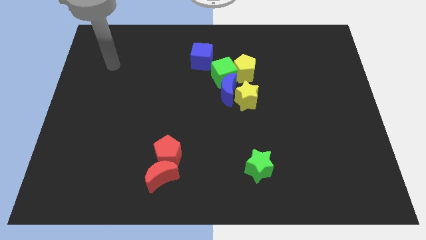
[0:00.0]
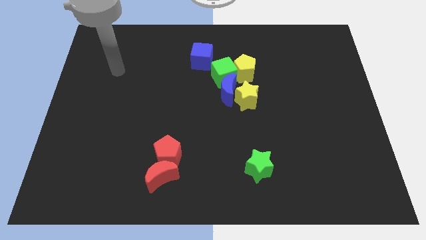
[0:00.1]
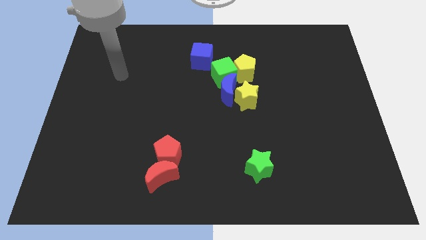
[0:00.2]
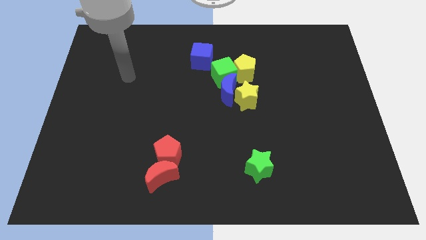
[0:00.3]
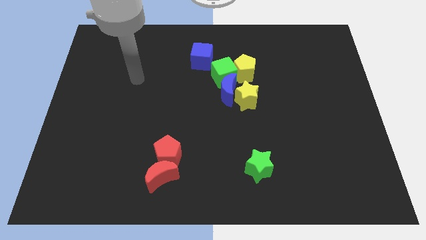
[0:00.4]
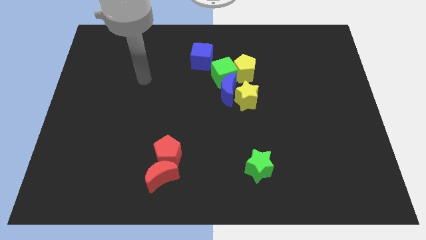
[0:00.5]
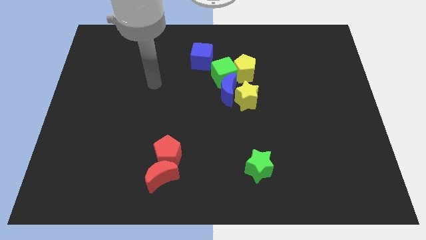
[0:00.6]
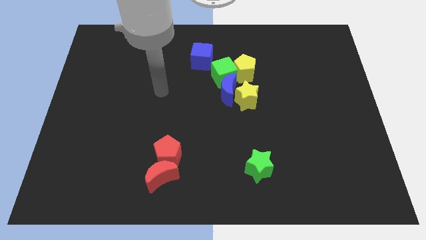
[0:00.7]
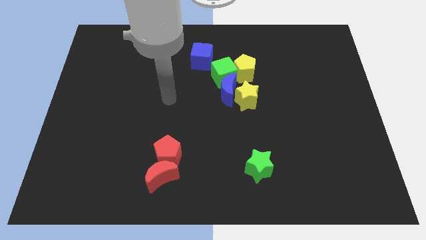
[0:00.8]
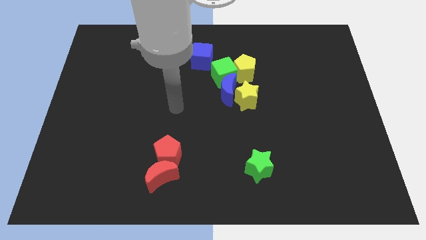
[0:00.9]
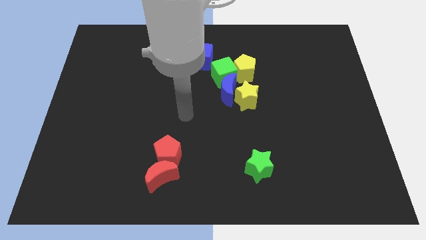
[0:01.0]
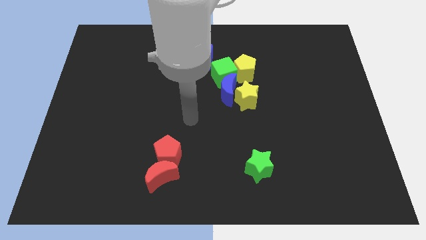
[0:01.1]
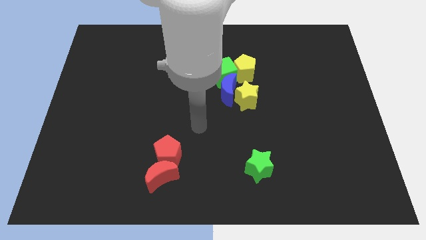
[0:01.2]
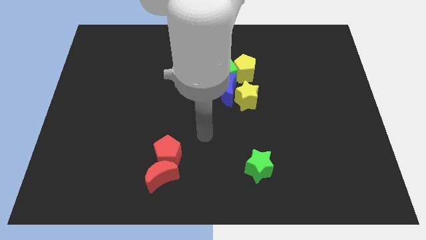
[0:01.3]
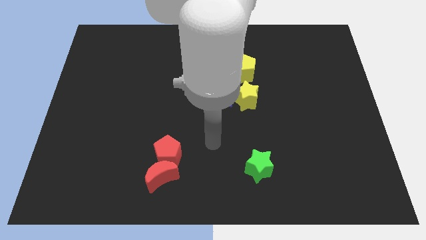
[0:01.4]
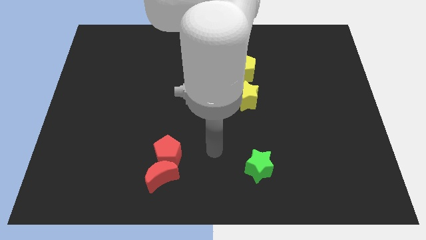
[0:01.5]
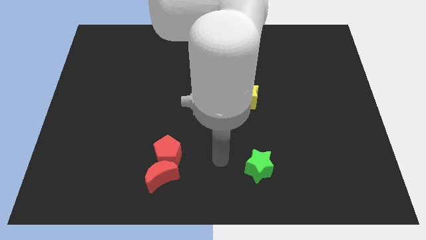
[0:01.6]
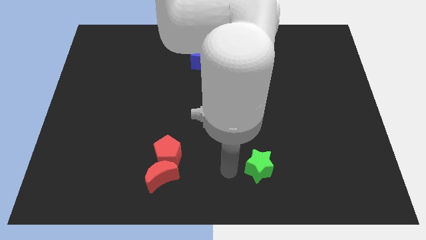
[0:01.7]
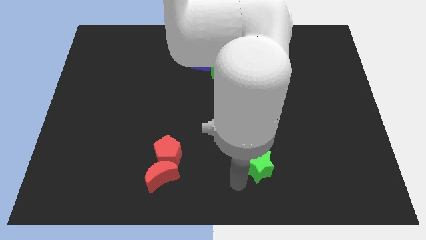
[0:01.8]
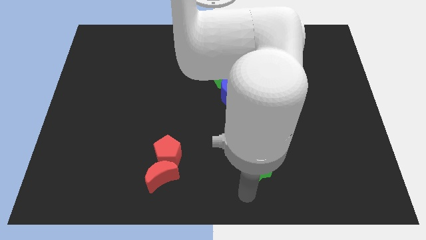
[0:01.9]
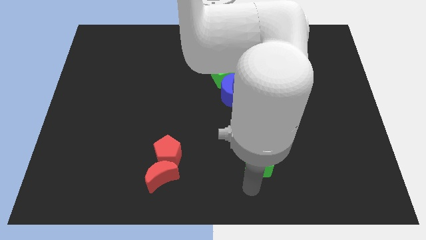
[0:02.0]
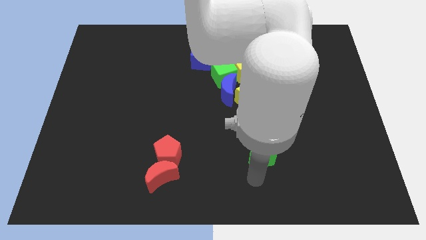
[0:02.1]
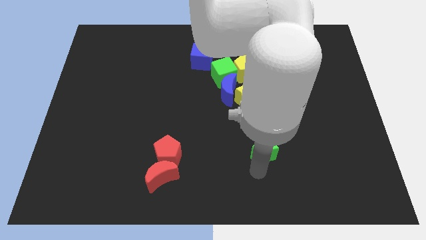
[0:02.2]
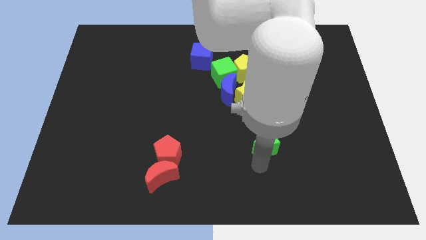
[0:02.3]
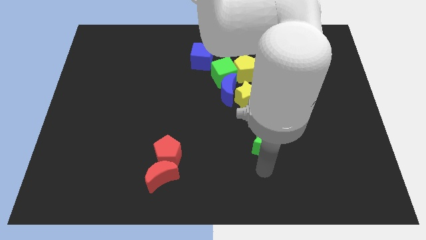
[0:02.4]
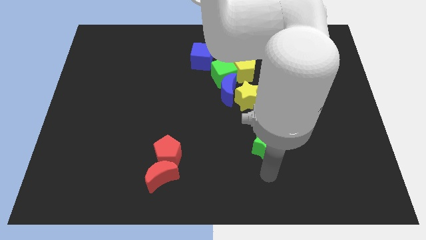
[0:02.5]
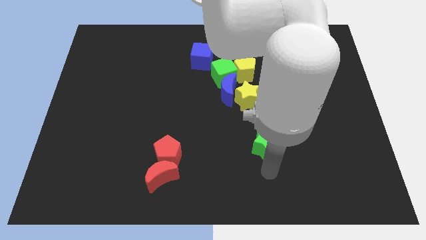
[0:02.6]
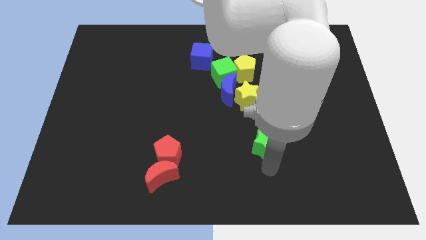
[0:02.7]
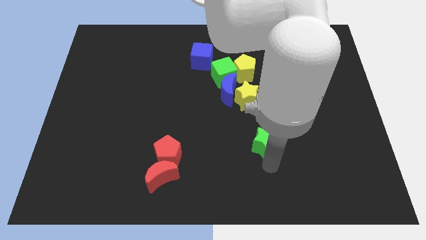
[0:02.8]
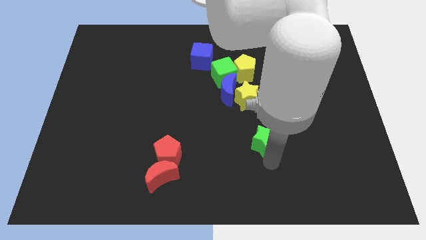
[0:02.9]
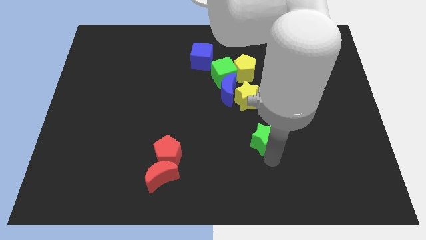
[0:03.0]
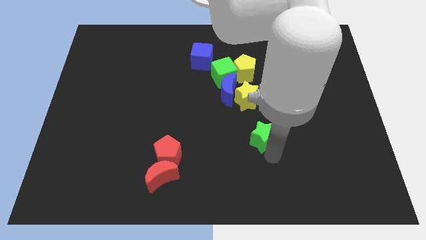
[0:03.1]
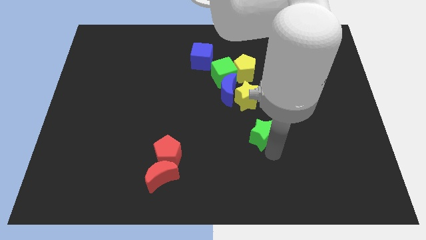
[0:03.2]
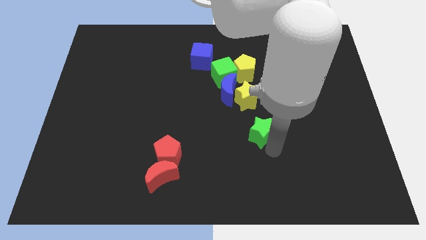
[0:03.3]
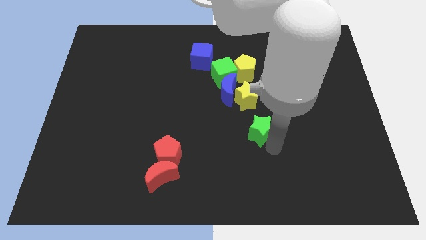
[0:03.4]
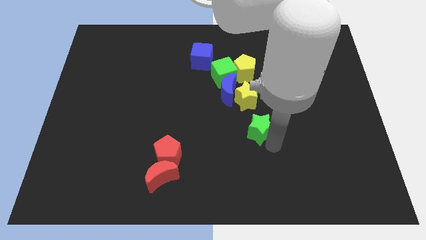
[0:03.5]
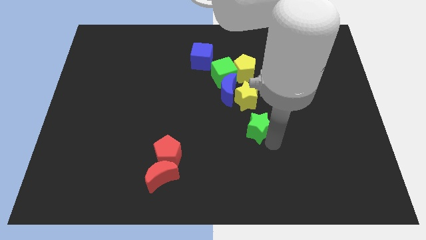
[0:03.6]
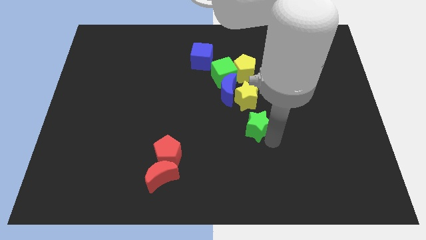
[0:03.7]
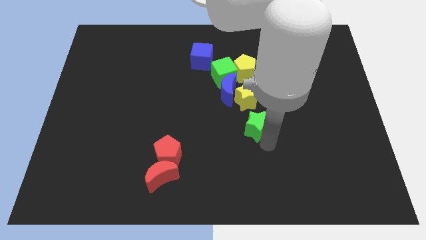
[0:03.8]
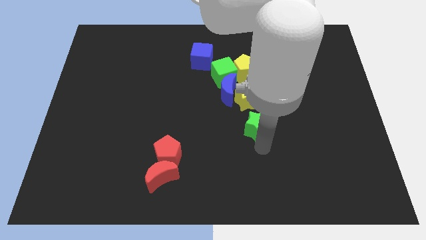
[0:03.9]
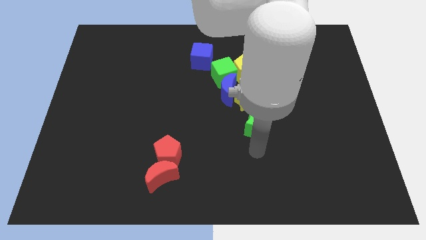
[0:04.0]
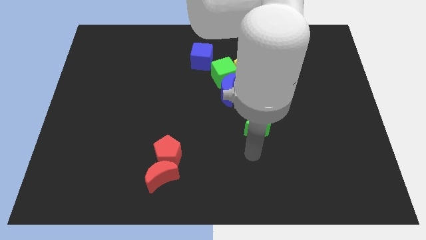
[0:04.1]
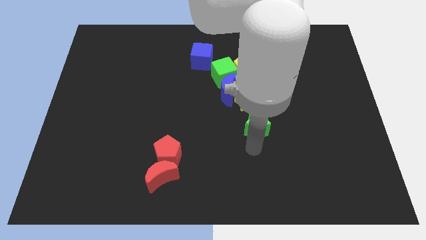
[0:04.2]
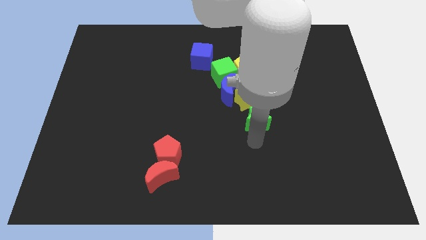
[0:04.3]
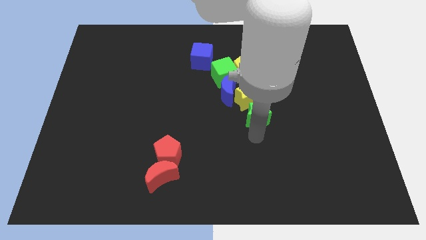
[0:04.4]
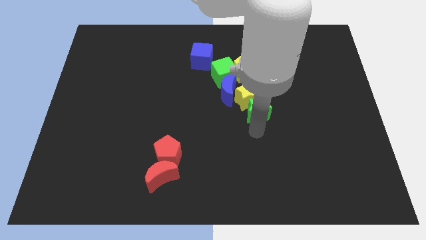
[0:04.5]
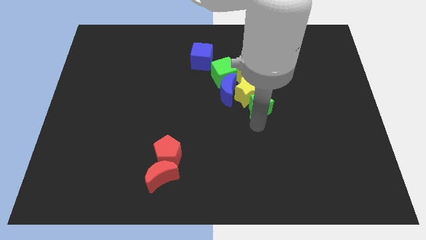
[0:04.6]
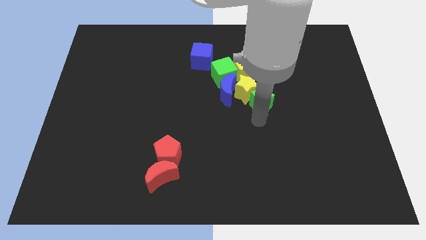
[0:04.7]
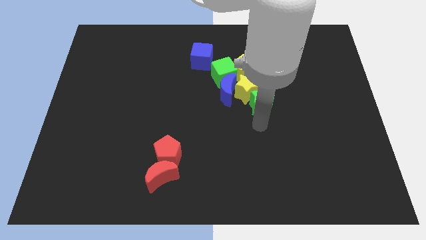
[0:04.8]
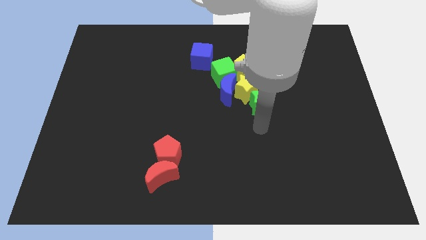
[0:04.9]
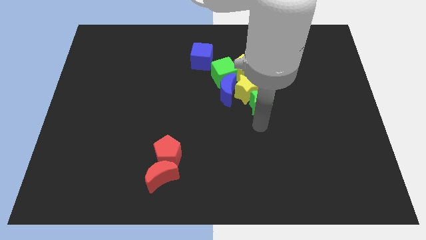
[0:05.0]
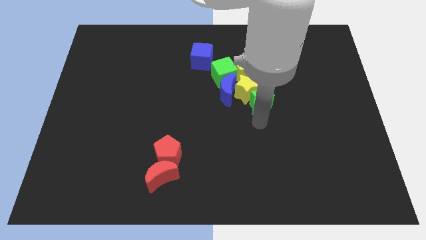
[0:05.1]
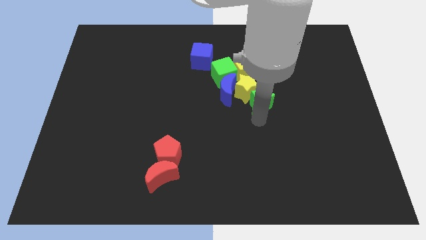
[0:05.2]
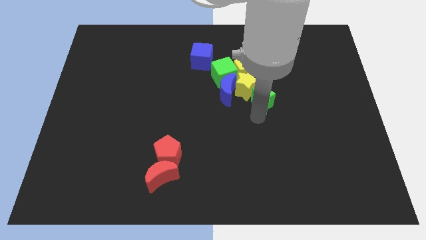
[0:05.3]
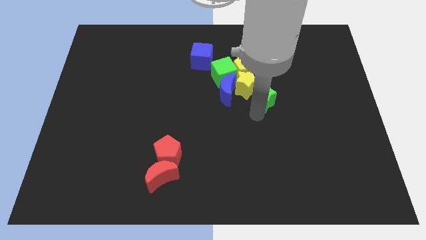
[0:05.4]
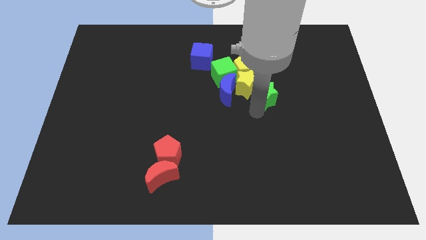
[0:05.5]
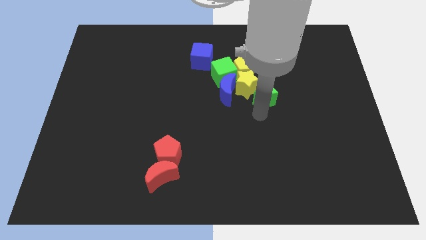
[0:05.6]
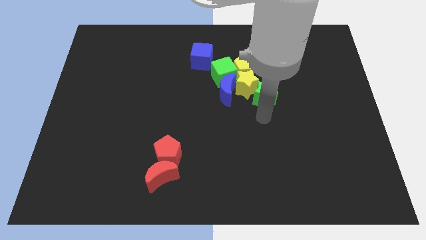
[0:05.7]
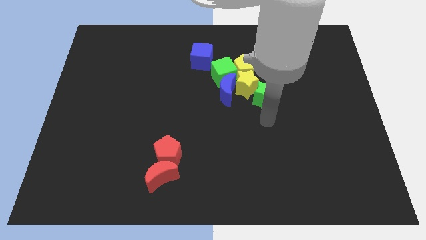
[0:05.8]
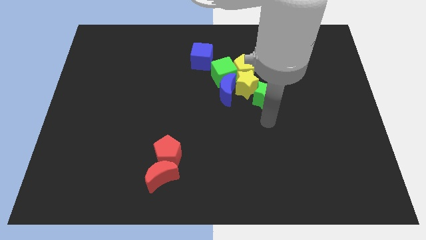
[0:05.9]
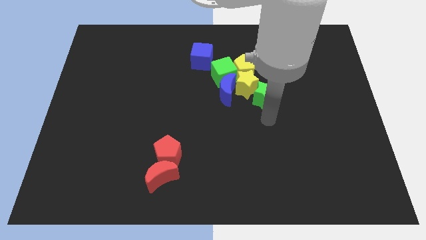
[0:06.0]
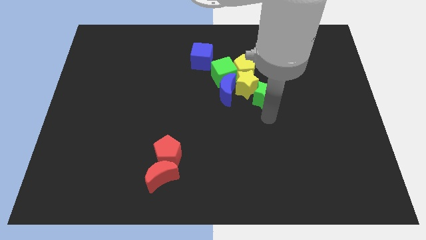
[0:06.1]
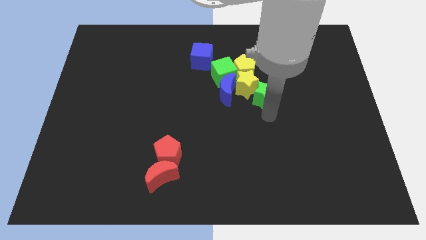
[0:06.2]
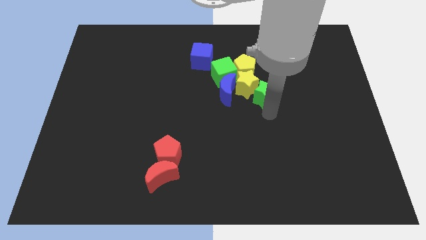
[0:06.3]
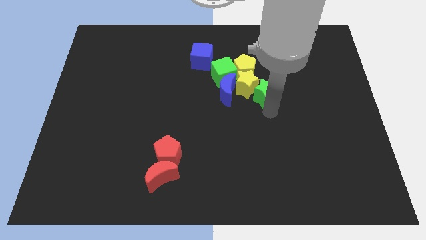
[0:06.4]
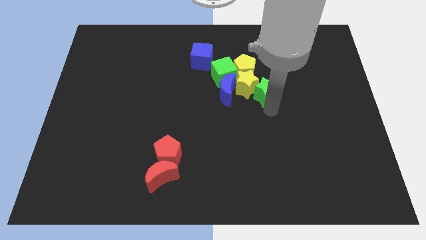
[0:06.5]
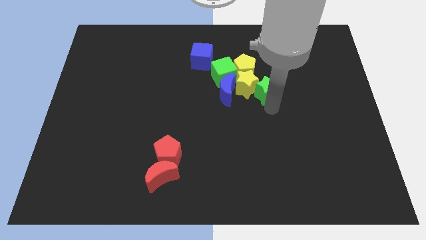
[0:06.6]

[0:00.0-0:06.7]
move the green star upwards
